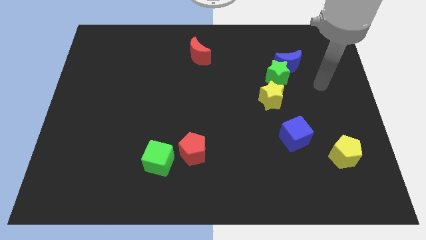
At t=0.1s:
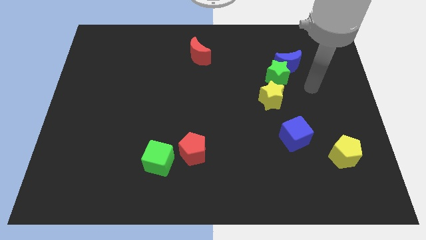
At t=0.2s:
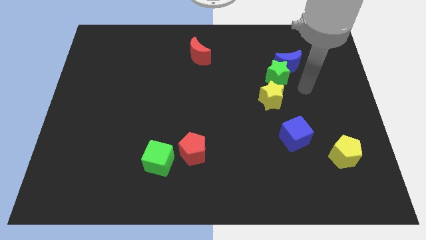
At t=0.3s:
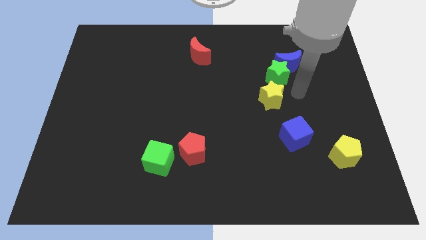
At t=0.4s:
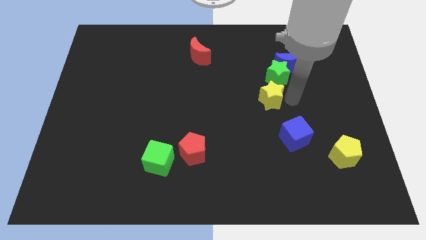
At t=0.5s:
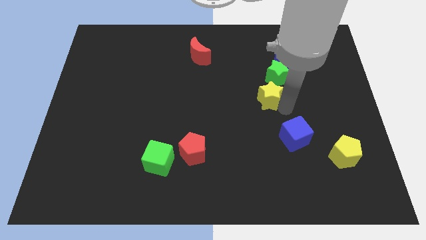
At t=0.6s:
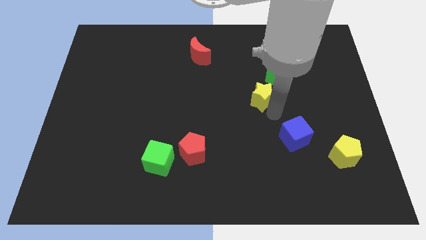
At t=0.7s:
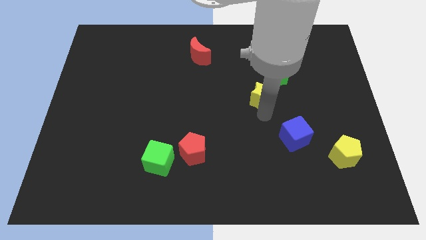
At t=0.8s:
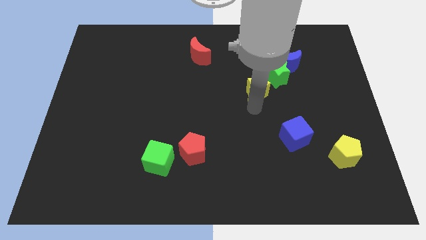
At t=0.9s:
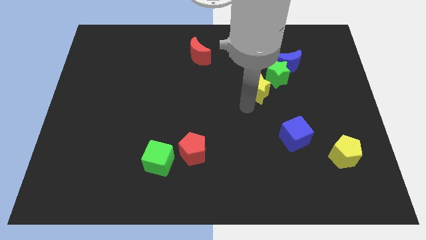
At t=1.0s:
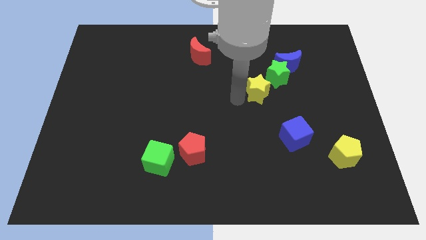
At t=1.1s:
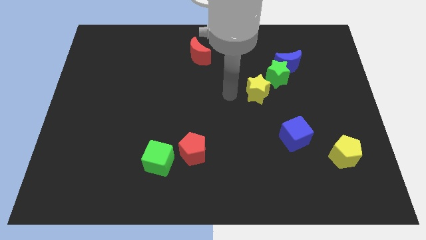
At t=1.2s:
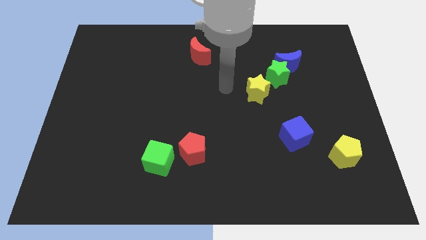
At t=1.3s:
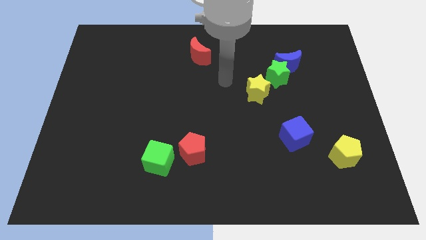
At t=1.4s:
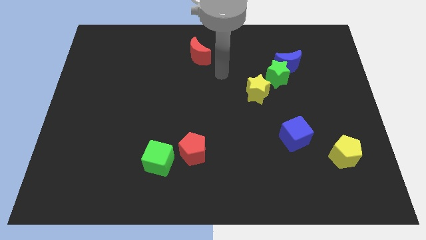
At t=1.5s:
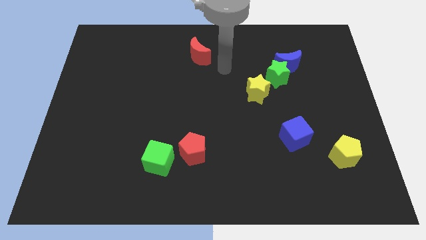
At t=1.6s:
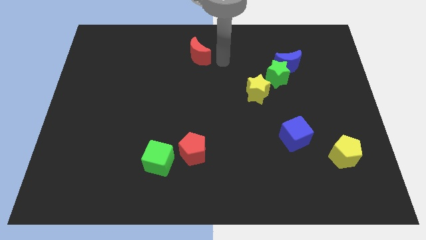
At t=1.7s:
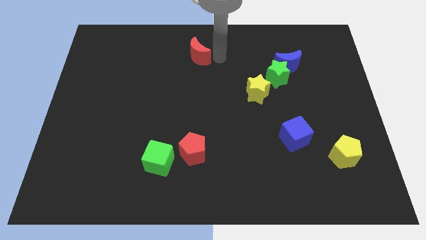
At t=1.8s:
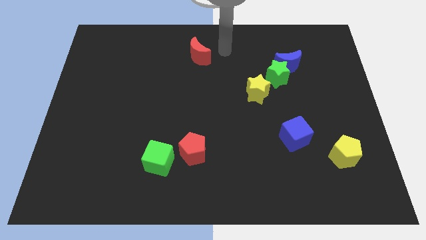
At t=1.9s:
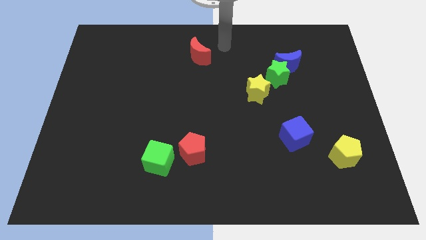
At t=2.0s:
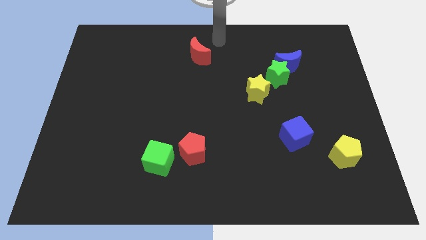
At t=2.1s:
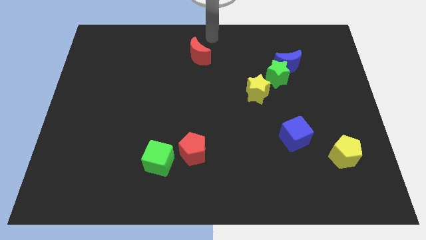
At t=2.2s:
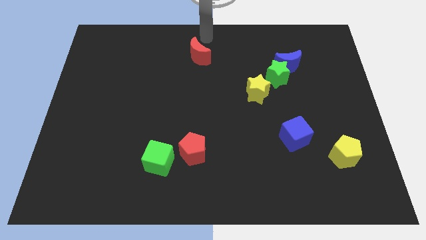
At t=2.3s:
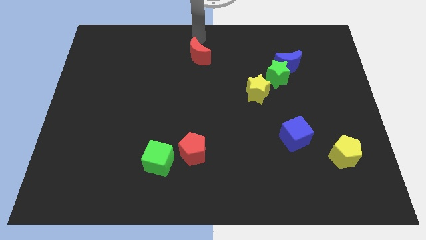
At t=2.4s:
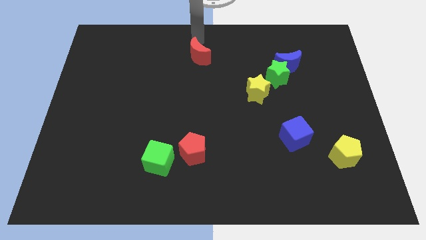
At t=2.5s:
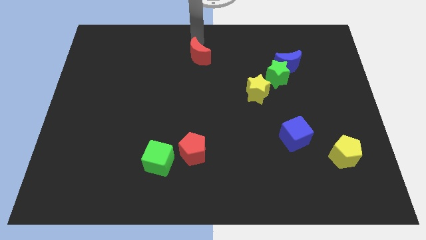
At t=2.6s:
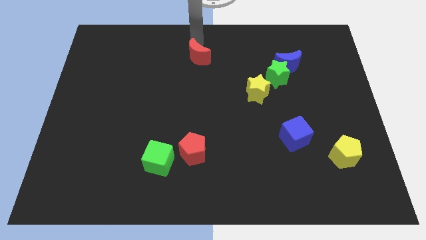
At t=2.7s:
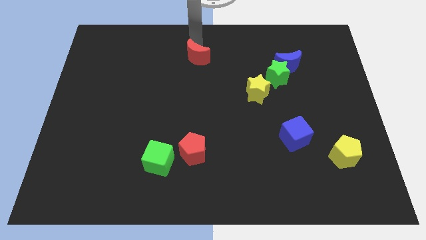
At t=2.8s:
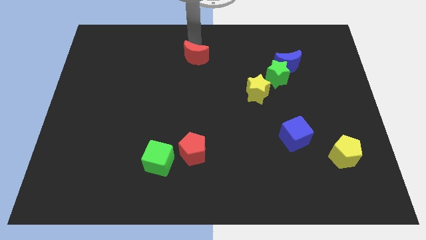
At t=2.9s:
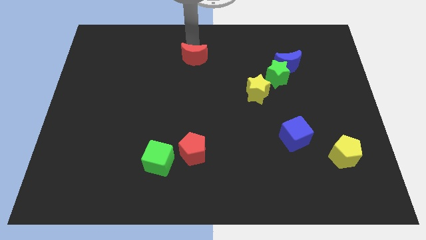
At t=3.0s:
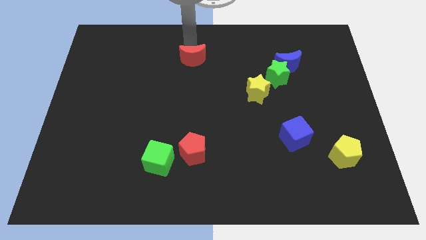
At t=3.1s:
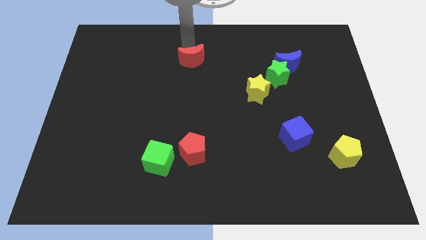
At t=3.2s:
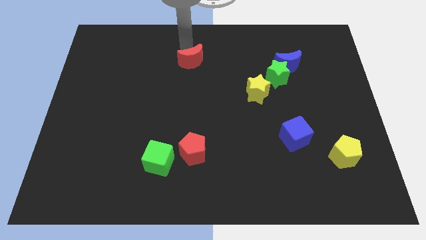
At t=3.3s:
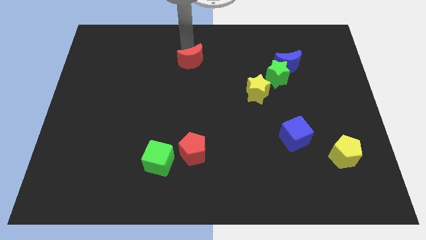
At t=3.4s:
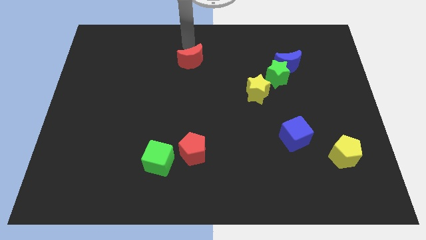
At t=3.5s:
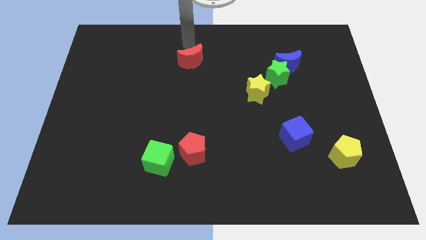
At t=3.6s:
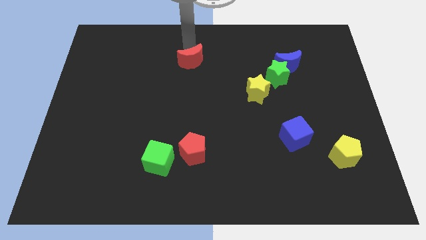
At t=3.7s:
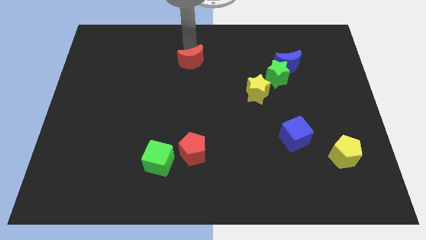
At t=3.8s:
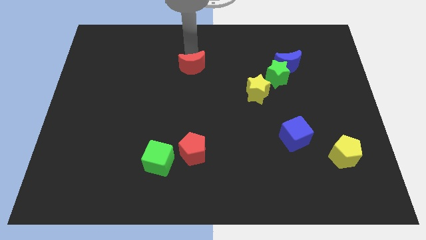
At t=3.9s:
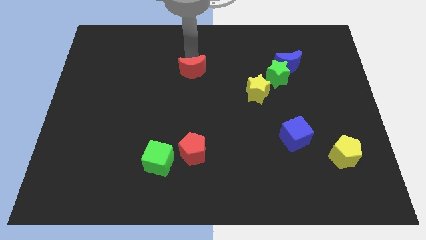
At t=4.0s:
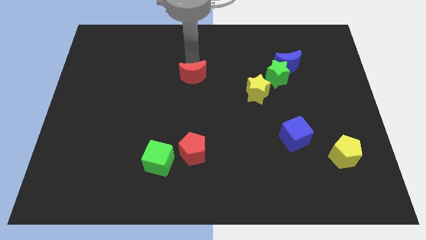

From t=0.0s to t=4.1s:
slightly slide the red moon down

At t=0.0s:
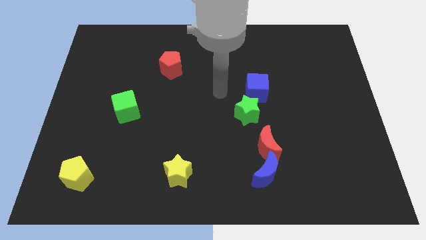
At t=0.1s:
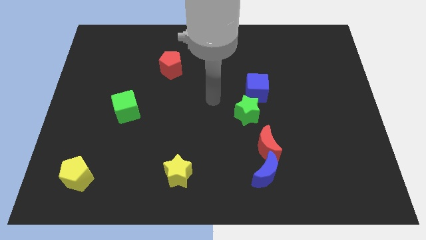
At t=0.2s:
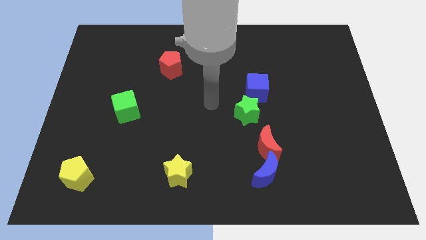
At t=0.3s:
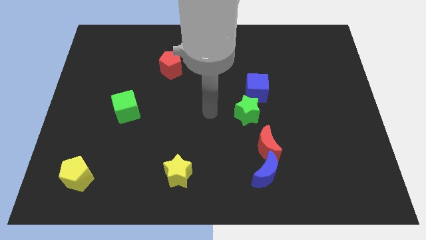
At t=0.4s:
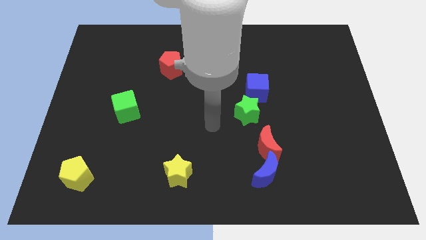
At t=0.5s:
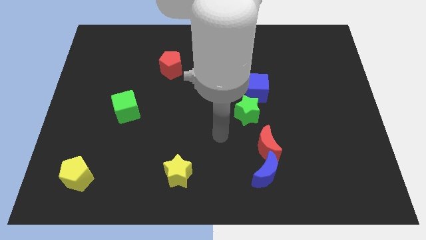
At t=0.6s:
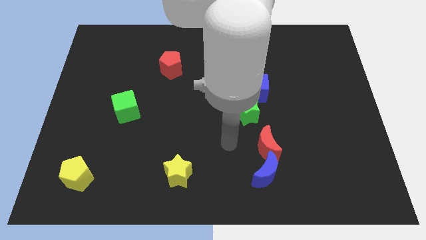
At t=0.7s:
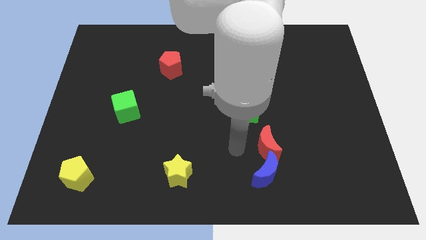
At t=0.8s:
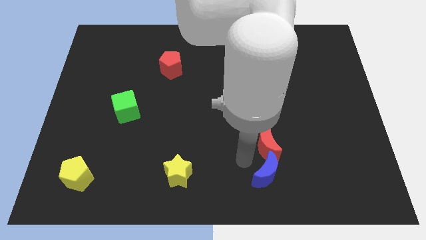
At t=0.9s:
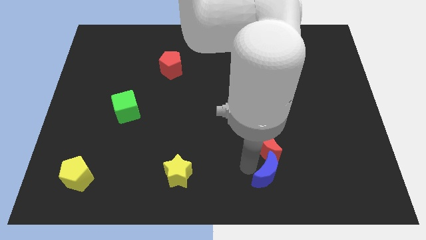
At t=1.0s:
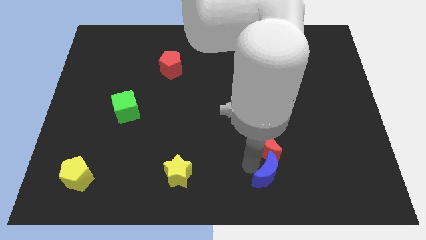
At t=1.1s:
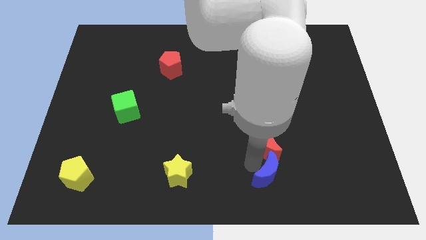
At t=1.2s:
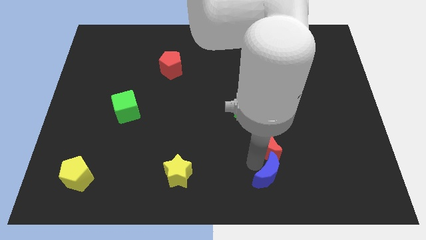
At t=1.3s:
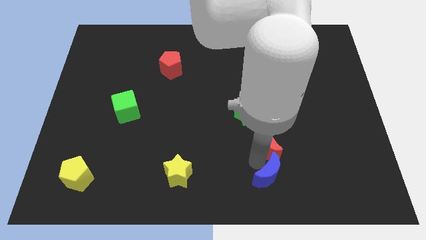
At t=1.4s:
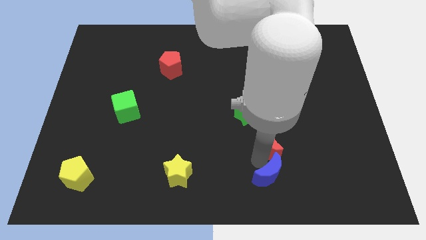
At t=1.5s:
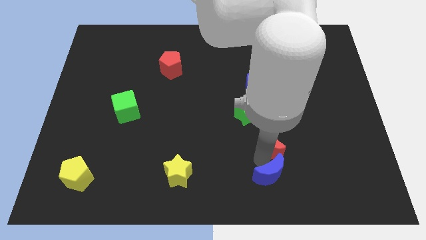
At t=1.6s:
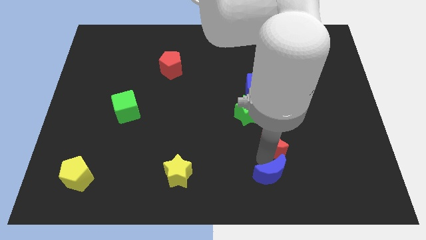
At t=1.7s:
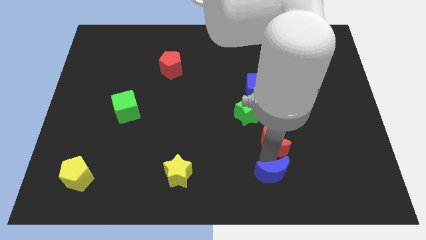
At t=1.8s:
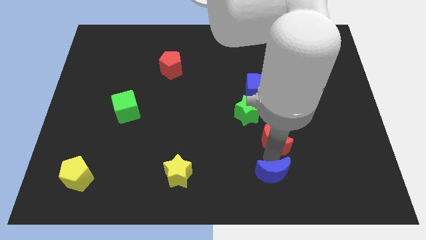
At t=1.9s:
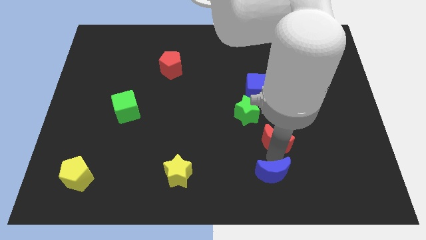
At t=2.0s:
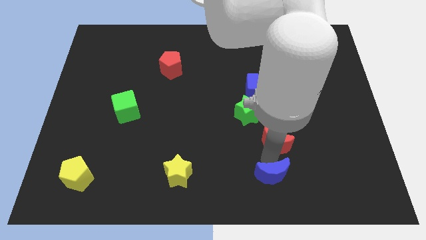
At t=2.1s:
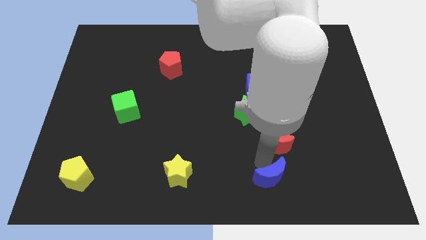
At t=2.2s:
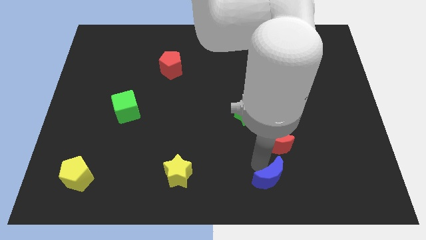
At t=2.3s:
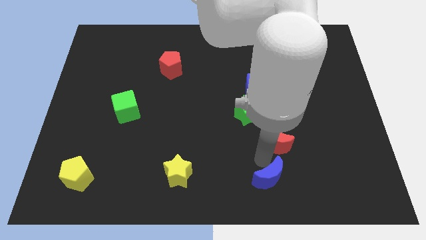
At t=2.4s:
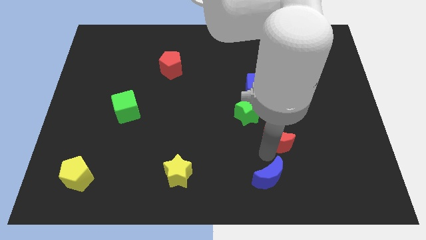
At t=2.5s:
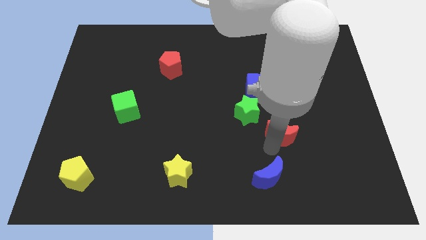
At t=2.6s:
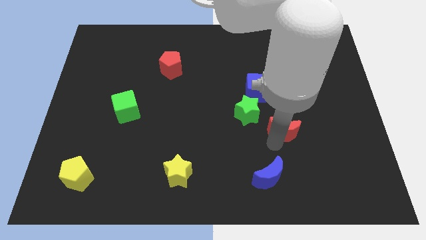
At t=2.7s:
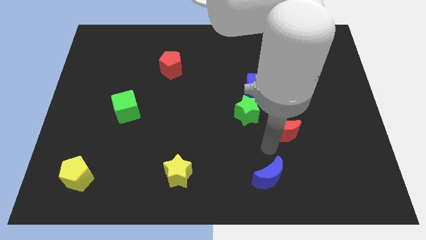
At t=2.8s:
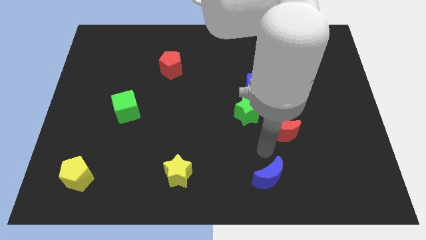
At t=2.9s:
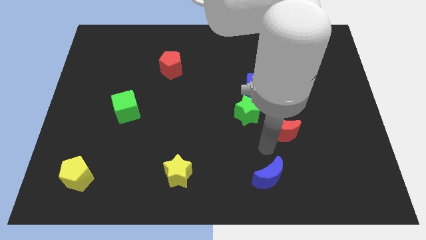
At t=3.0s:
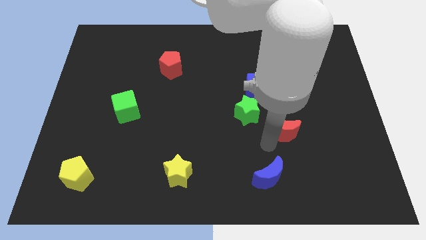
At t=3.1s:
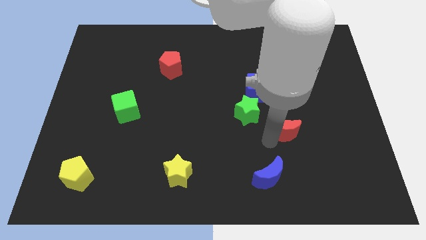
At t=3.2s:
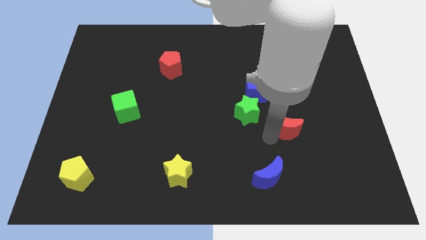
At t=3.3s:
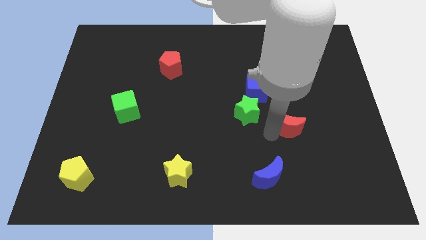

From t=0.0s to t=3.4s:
slide the red moon upwards and right diagonally a bit

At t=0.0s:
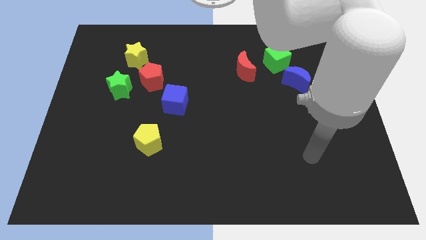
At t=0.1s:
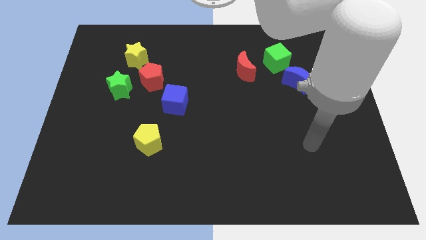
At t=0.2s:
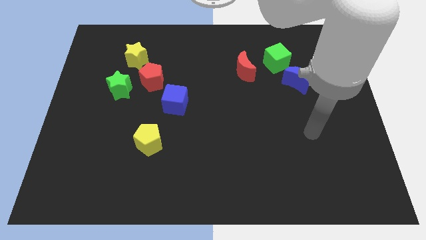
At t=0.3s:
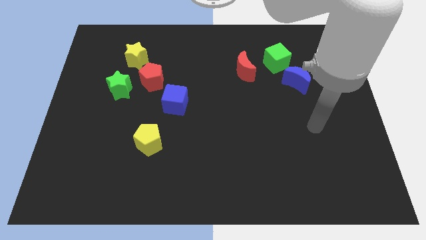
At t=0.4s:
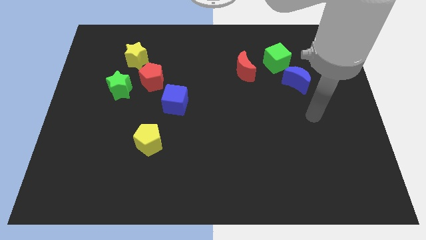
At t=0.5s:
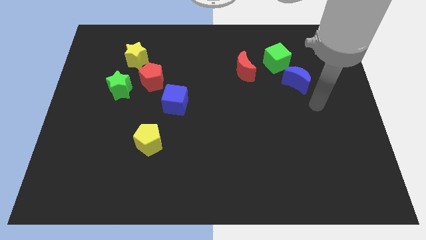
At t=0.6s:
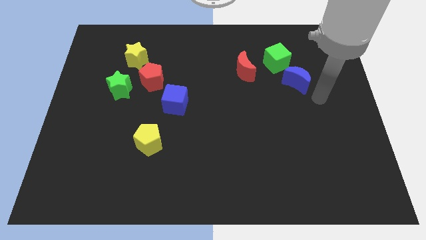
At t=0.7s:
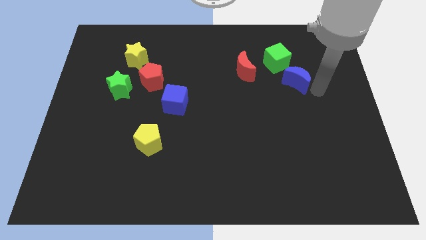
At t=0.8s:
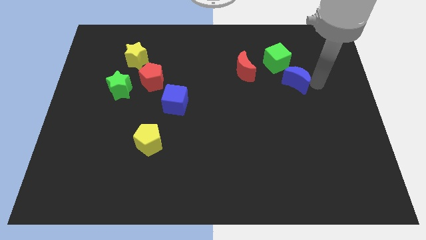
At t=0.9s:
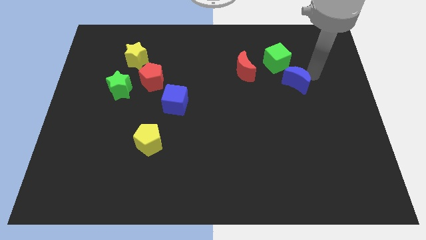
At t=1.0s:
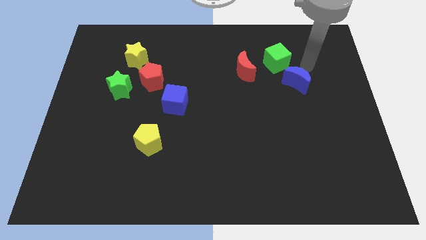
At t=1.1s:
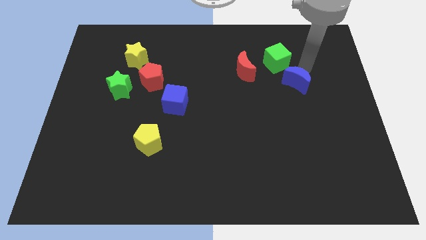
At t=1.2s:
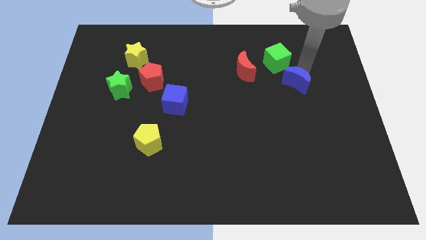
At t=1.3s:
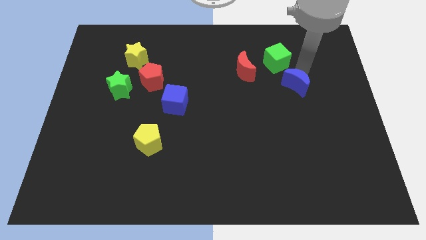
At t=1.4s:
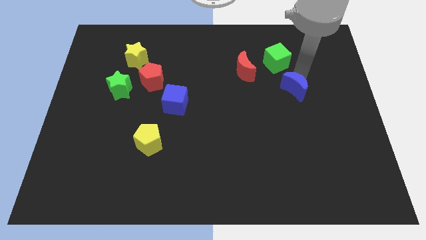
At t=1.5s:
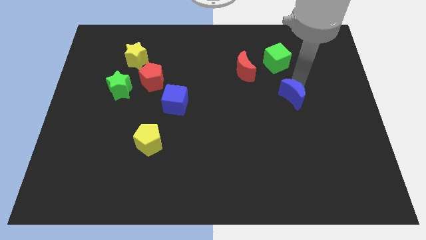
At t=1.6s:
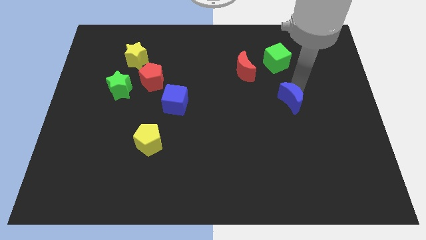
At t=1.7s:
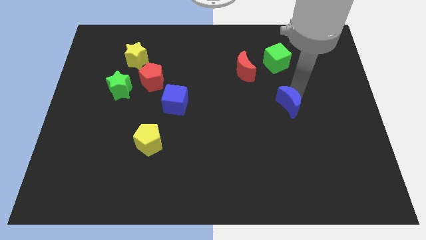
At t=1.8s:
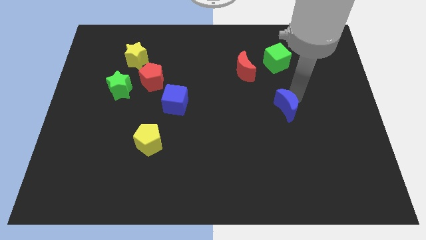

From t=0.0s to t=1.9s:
slide the blue moon a little diagonally downwards and left
